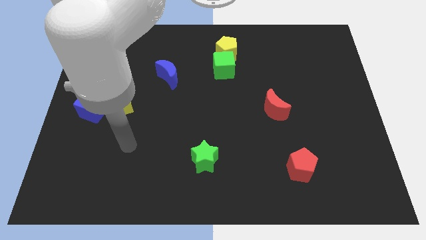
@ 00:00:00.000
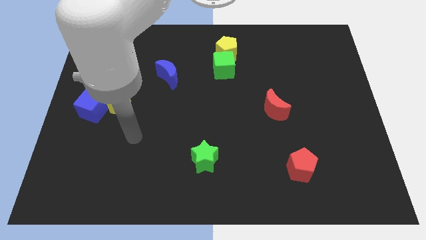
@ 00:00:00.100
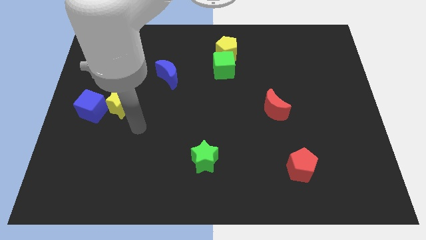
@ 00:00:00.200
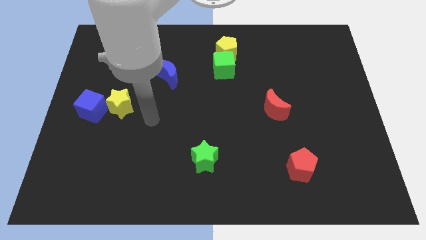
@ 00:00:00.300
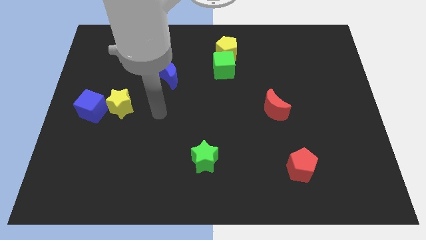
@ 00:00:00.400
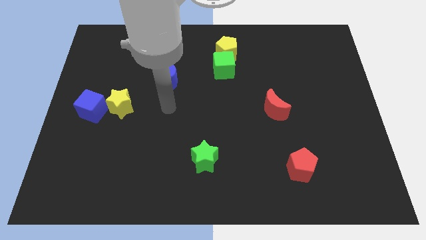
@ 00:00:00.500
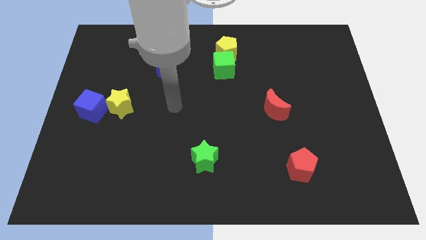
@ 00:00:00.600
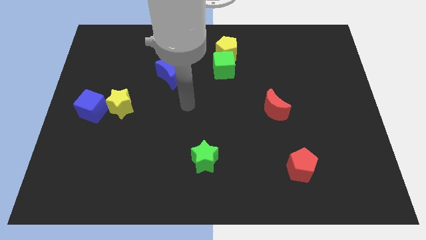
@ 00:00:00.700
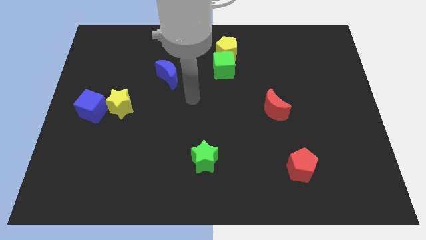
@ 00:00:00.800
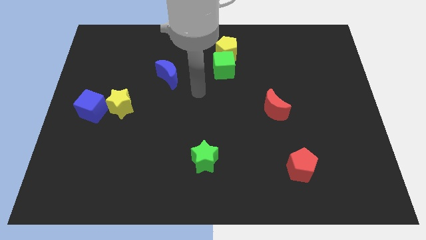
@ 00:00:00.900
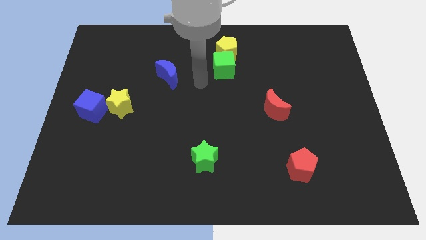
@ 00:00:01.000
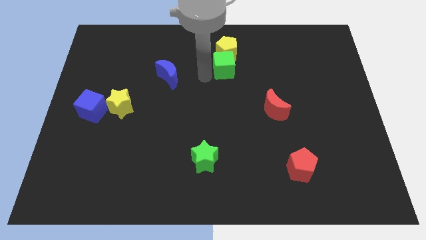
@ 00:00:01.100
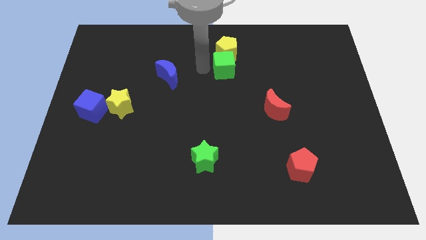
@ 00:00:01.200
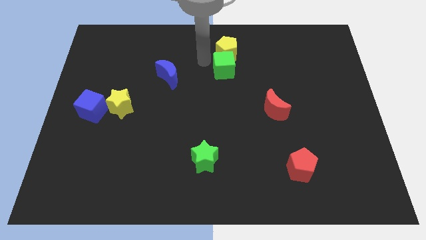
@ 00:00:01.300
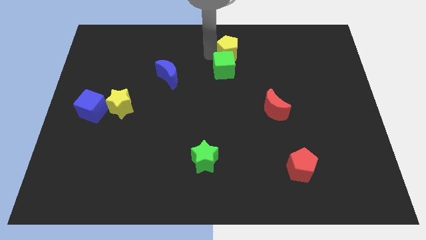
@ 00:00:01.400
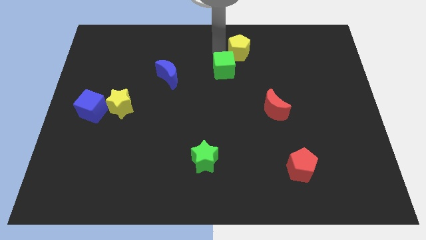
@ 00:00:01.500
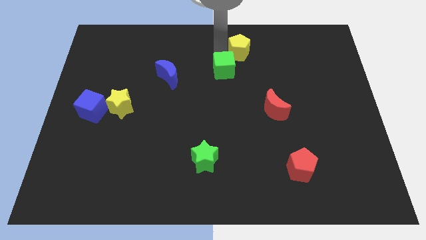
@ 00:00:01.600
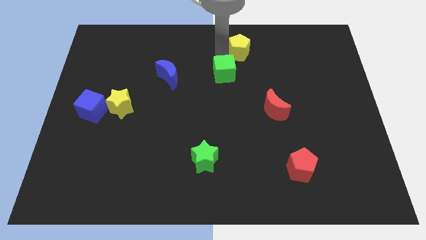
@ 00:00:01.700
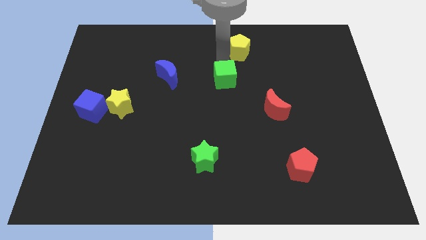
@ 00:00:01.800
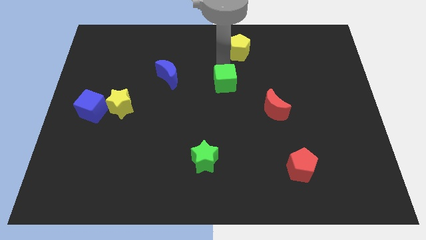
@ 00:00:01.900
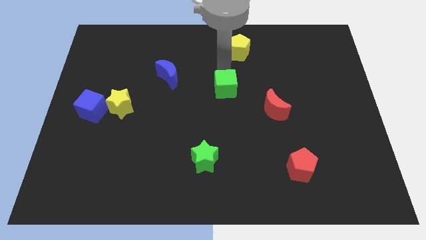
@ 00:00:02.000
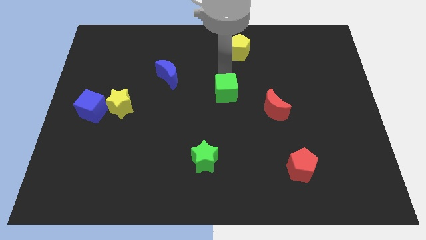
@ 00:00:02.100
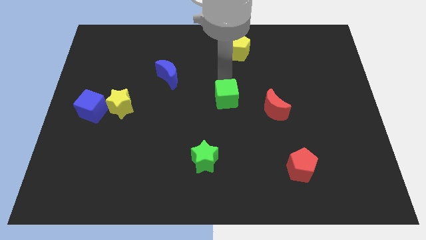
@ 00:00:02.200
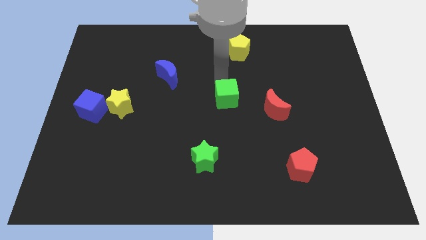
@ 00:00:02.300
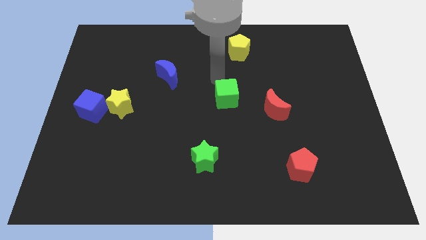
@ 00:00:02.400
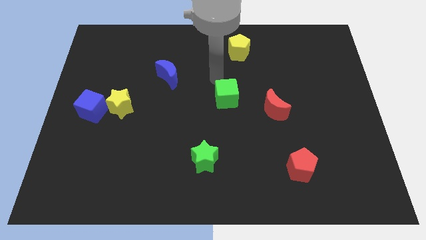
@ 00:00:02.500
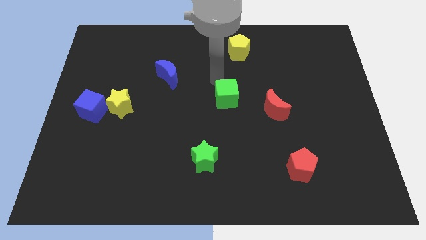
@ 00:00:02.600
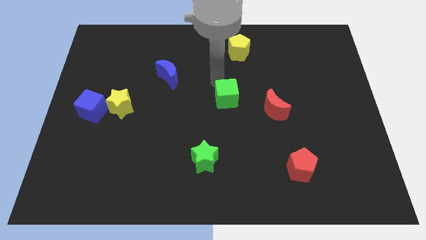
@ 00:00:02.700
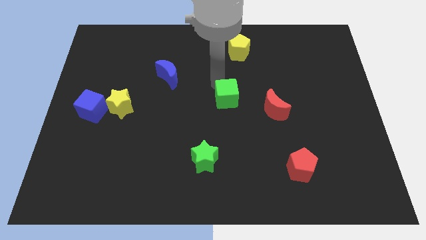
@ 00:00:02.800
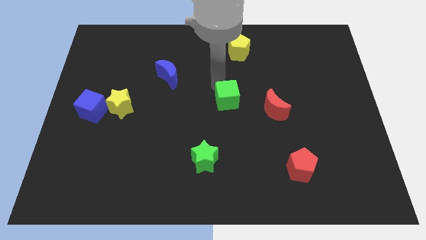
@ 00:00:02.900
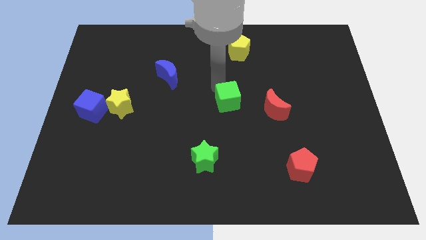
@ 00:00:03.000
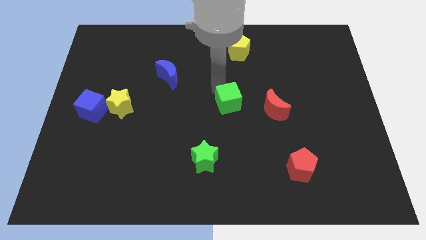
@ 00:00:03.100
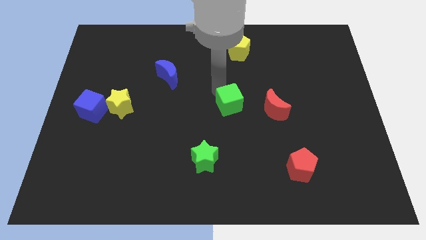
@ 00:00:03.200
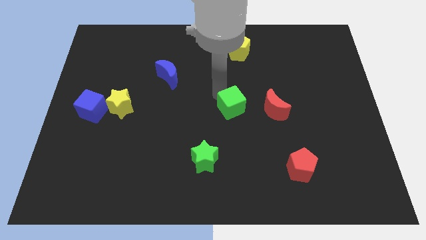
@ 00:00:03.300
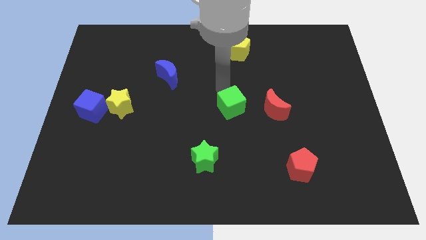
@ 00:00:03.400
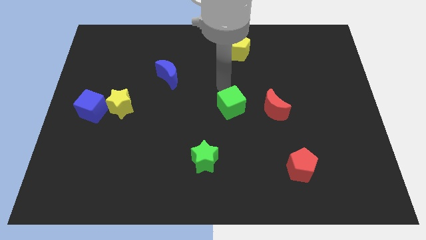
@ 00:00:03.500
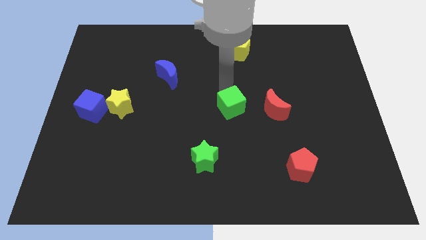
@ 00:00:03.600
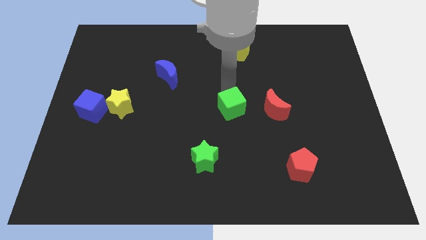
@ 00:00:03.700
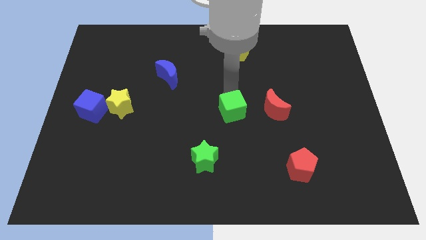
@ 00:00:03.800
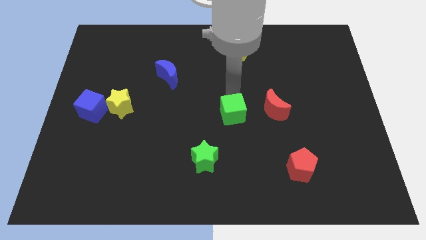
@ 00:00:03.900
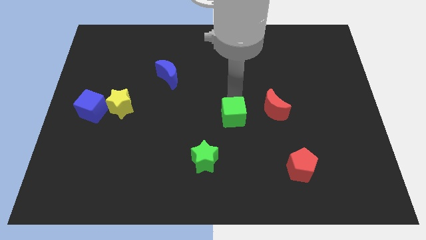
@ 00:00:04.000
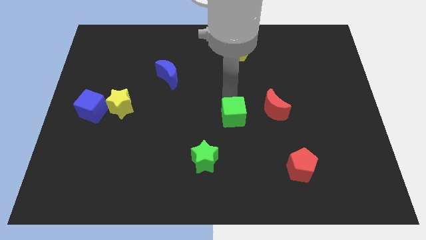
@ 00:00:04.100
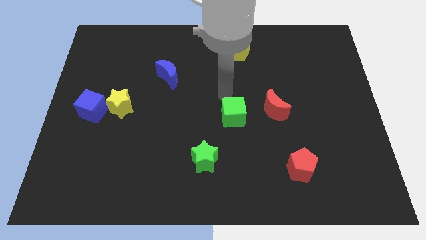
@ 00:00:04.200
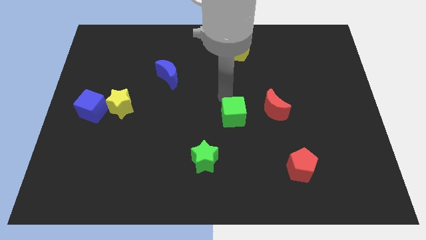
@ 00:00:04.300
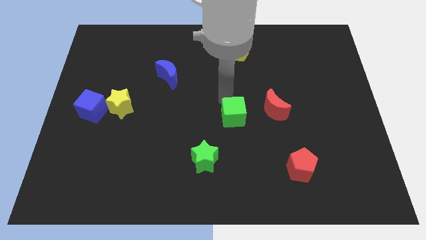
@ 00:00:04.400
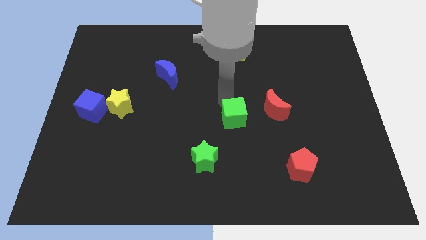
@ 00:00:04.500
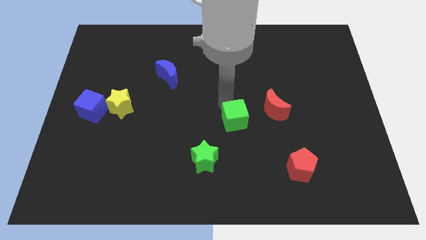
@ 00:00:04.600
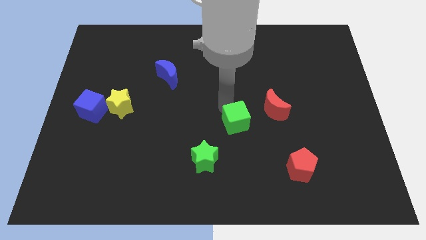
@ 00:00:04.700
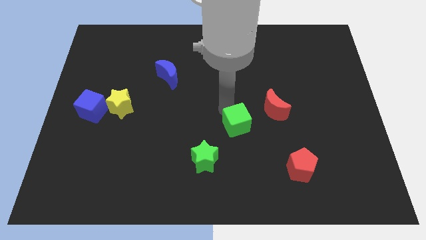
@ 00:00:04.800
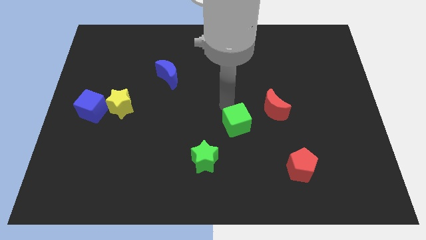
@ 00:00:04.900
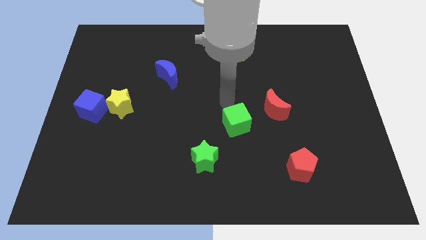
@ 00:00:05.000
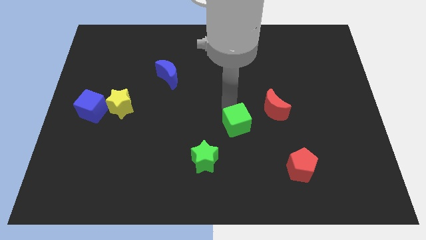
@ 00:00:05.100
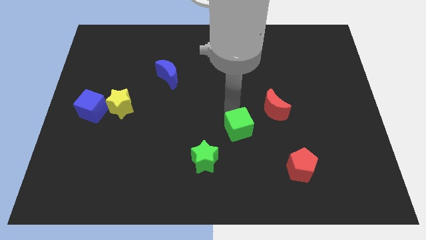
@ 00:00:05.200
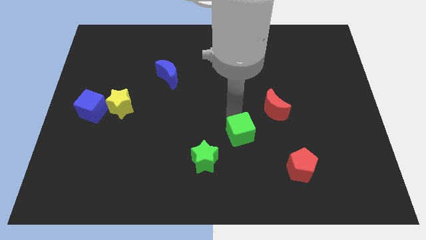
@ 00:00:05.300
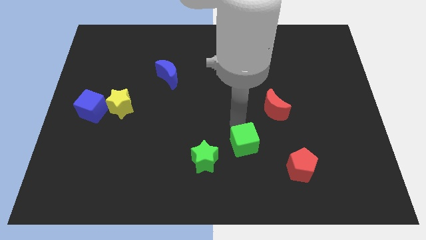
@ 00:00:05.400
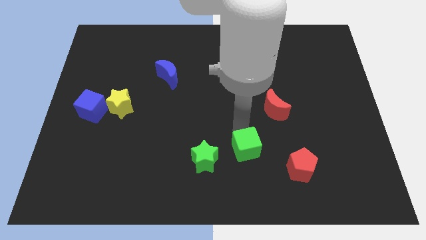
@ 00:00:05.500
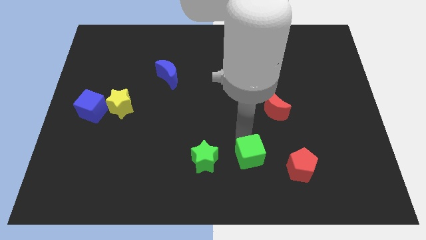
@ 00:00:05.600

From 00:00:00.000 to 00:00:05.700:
slide the green cube to the left of the red pentagon
